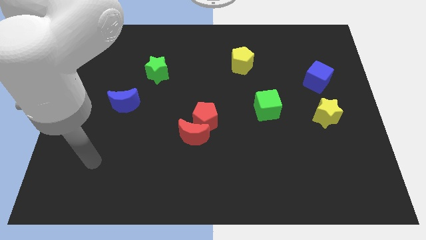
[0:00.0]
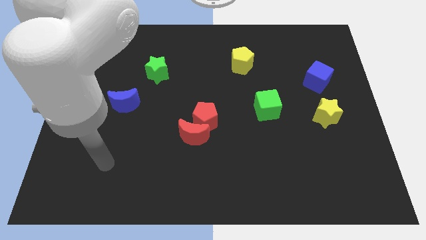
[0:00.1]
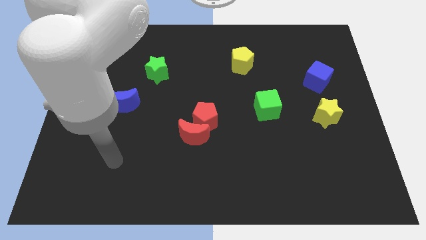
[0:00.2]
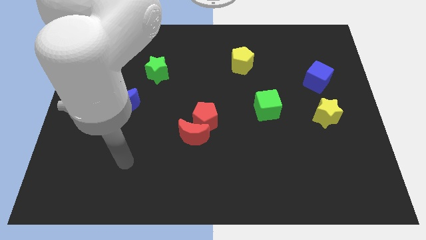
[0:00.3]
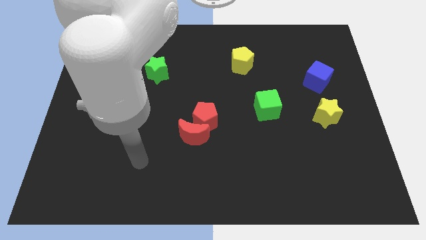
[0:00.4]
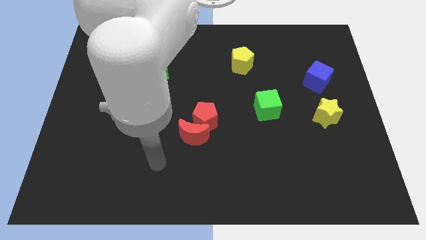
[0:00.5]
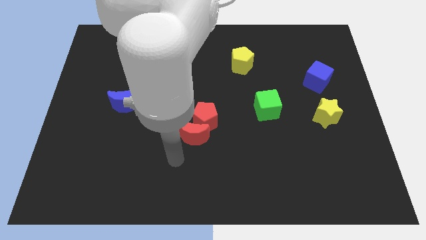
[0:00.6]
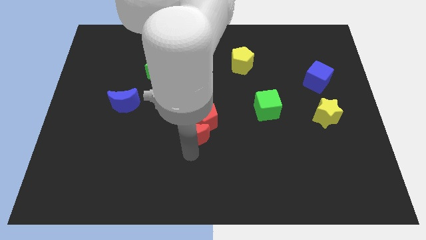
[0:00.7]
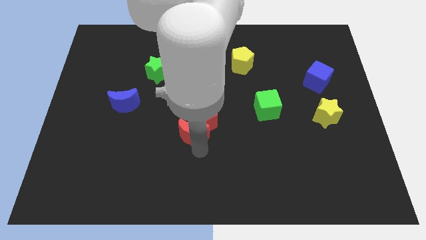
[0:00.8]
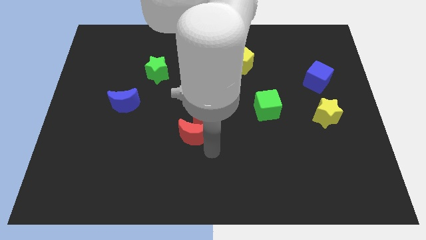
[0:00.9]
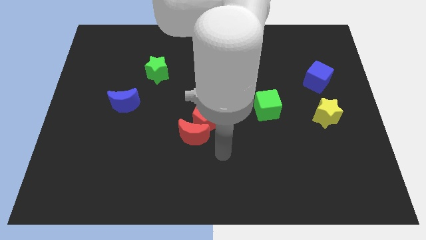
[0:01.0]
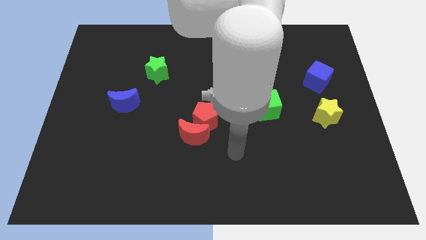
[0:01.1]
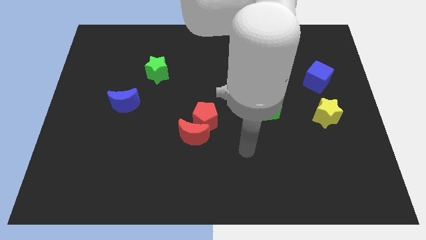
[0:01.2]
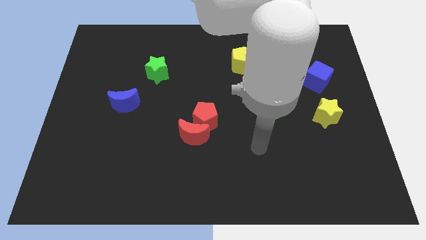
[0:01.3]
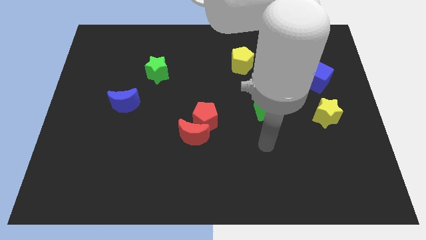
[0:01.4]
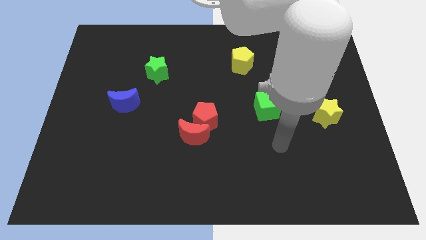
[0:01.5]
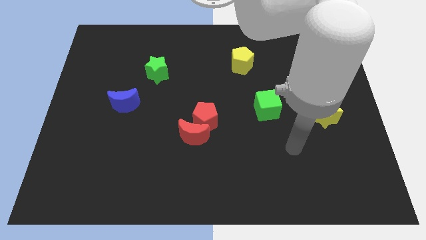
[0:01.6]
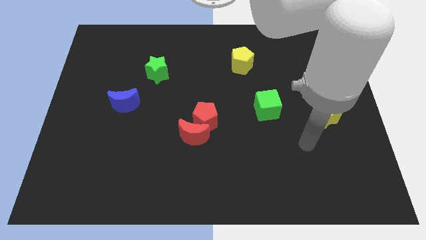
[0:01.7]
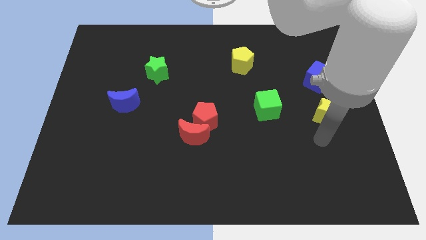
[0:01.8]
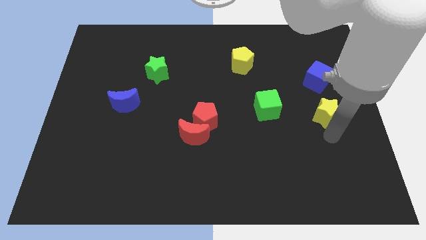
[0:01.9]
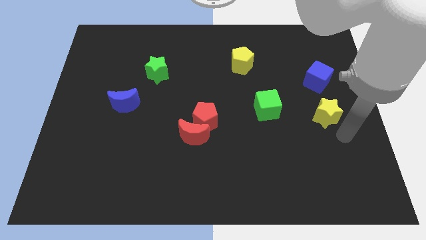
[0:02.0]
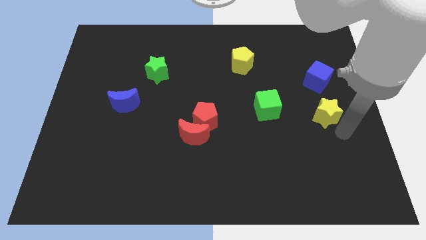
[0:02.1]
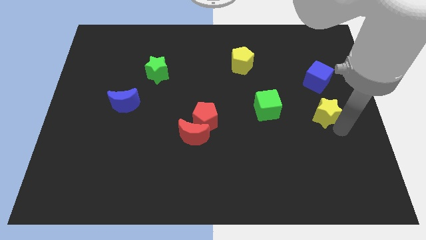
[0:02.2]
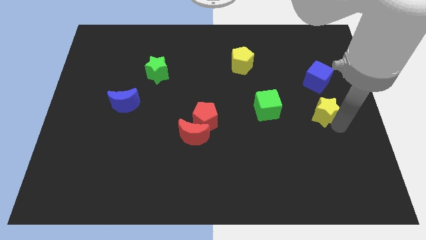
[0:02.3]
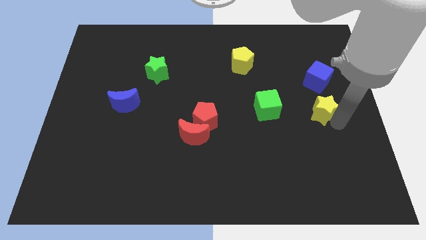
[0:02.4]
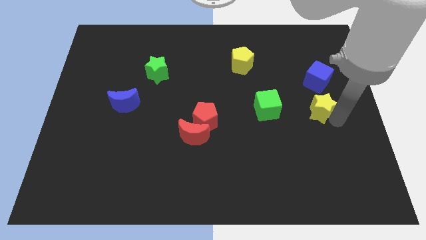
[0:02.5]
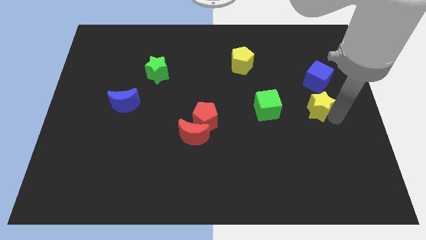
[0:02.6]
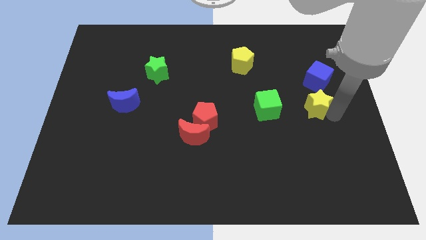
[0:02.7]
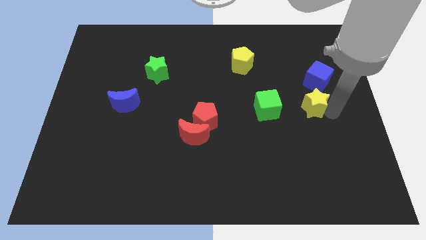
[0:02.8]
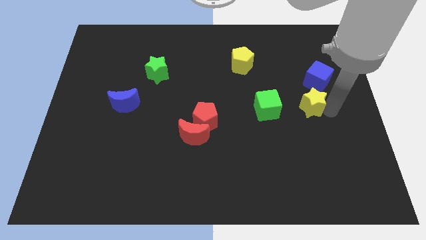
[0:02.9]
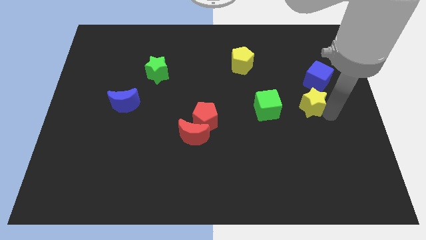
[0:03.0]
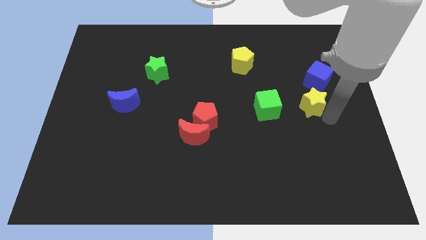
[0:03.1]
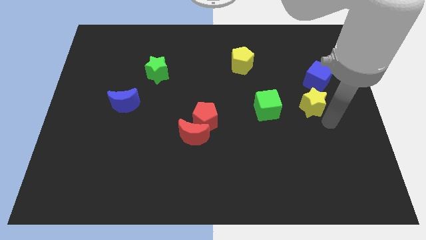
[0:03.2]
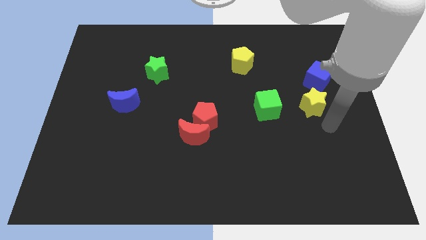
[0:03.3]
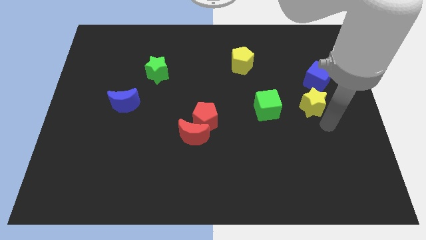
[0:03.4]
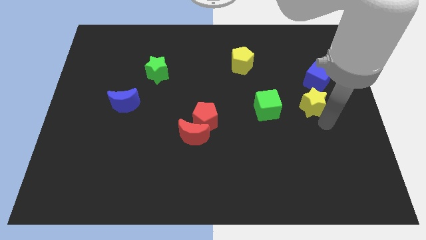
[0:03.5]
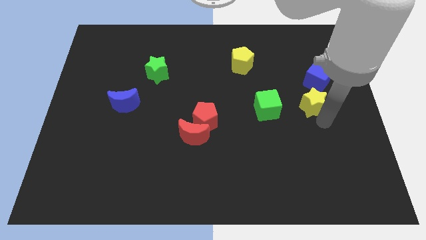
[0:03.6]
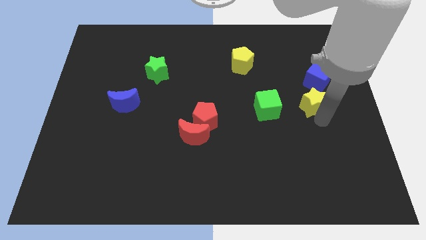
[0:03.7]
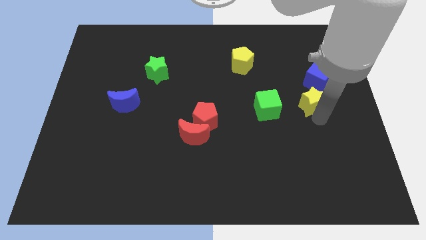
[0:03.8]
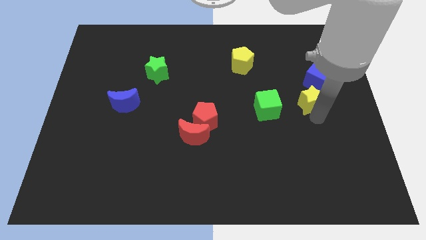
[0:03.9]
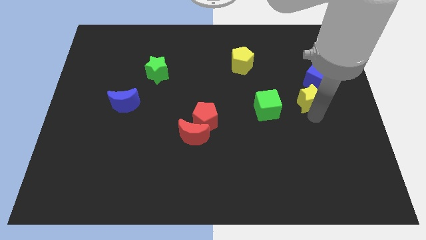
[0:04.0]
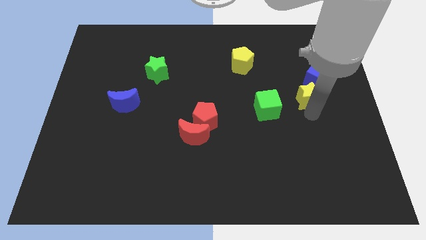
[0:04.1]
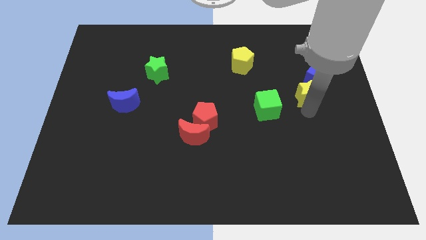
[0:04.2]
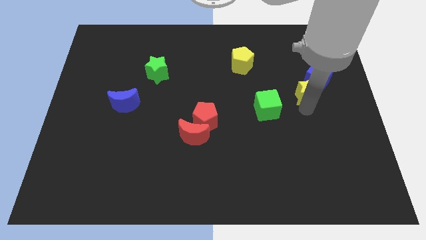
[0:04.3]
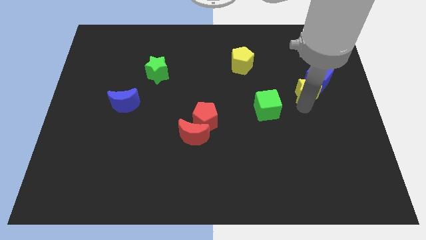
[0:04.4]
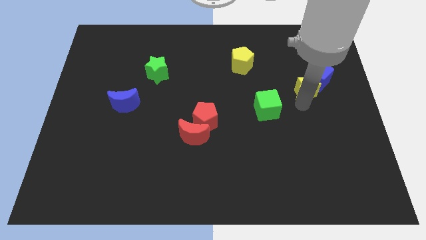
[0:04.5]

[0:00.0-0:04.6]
slightly push the yellow star upwards

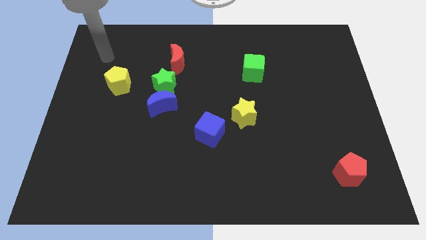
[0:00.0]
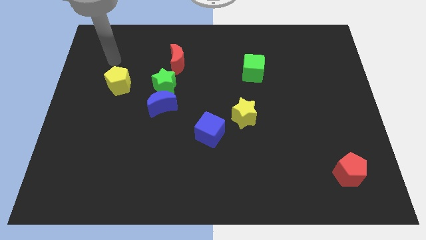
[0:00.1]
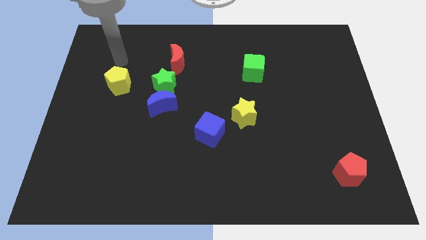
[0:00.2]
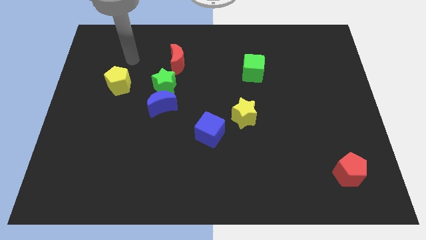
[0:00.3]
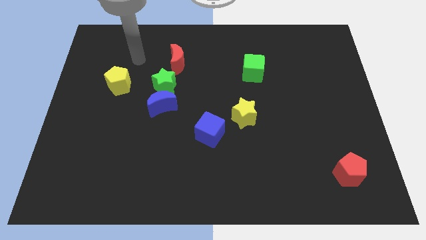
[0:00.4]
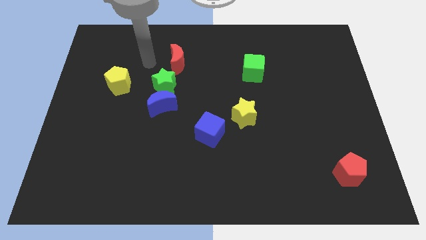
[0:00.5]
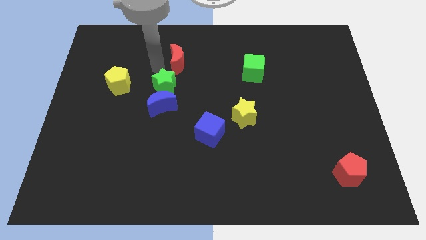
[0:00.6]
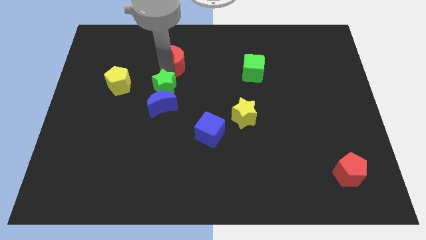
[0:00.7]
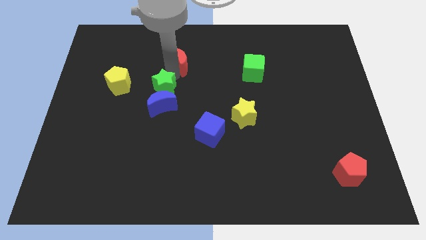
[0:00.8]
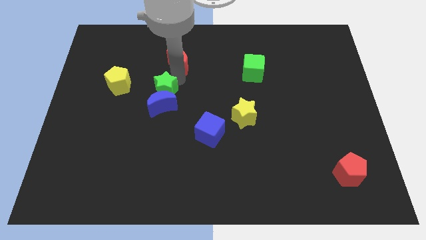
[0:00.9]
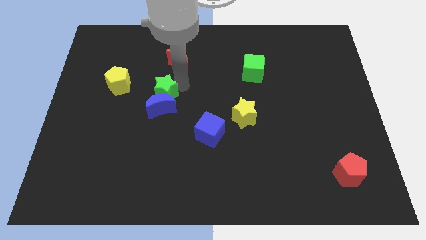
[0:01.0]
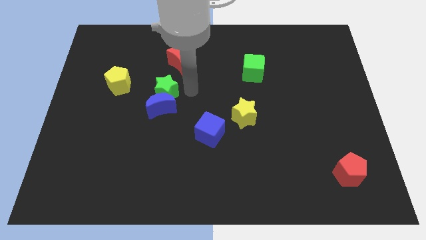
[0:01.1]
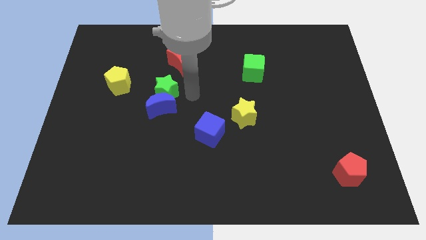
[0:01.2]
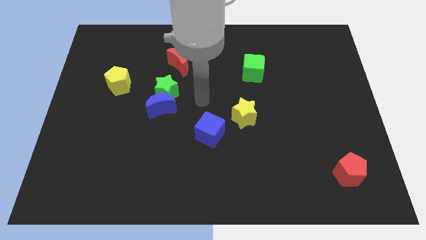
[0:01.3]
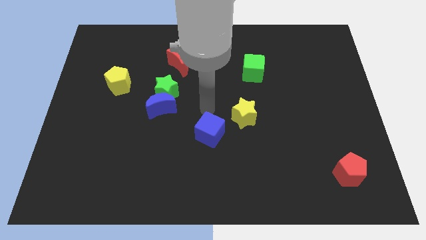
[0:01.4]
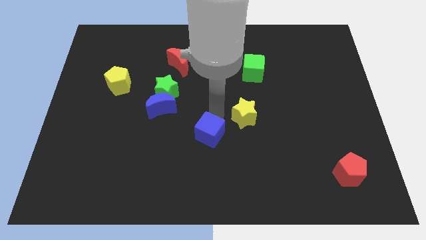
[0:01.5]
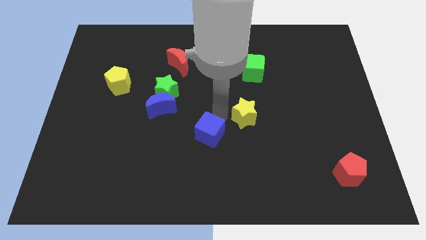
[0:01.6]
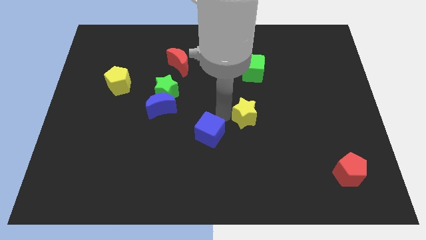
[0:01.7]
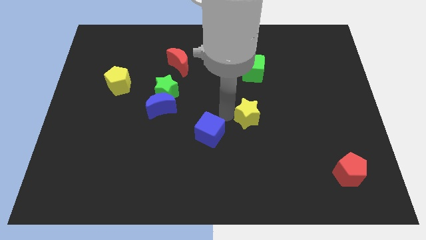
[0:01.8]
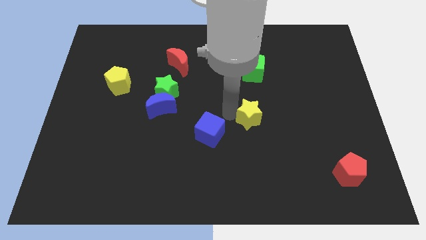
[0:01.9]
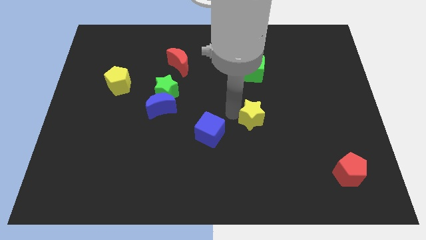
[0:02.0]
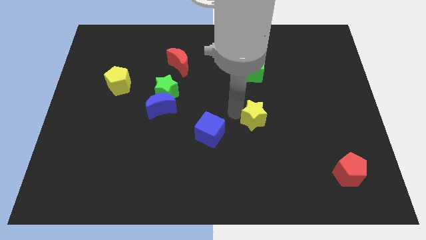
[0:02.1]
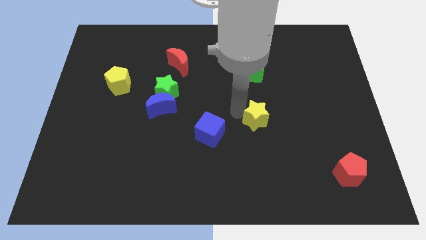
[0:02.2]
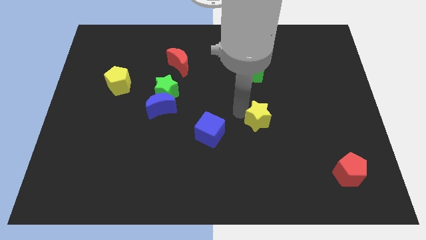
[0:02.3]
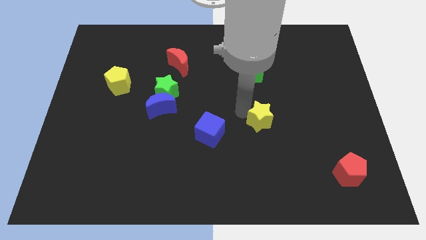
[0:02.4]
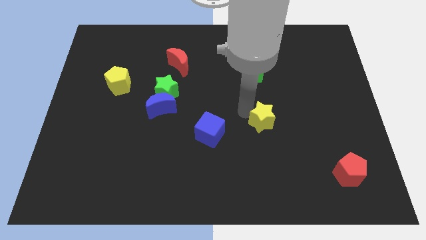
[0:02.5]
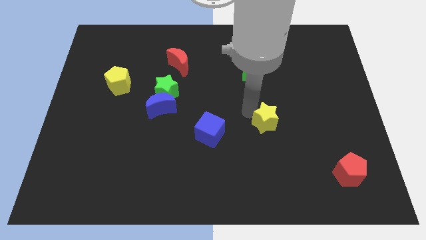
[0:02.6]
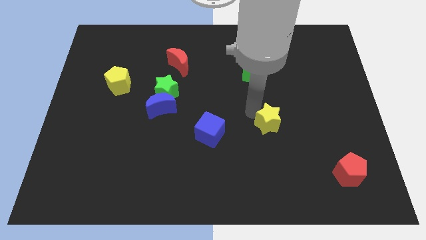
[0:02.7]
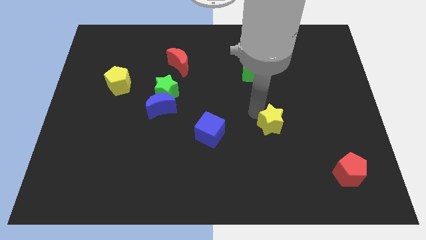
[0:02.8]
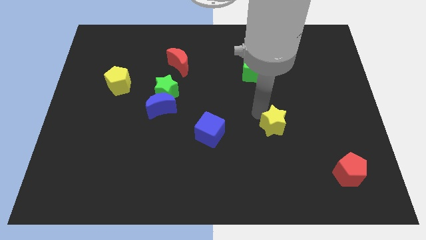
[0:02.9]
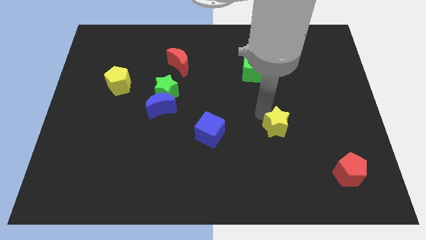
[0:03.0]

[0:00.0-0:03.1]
move the yellow star a little to the right

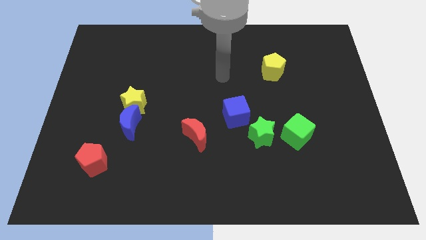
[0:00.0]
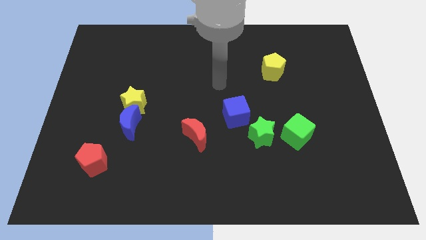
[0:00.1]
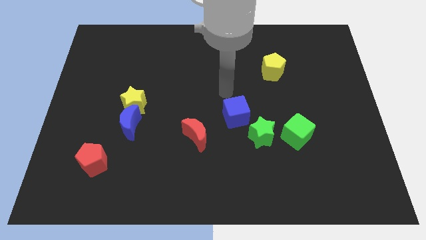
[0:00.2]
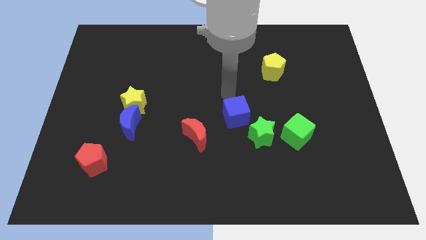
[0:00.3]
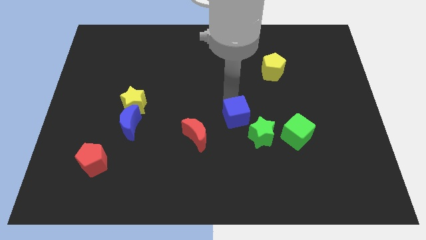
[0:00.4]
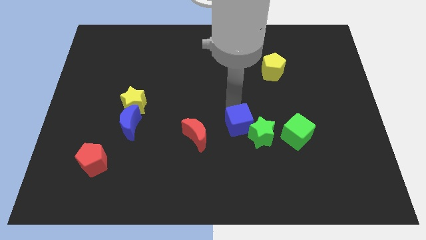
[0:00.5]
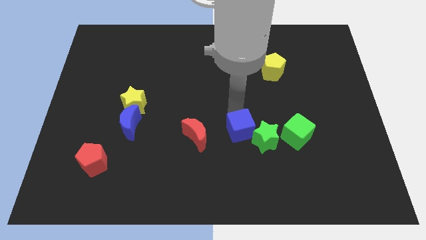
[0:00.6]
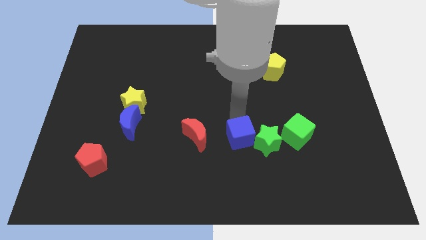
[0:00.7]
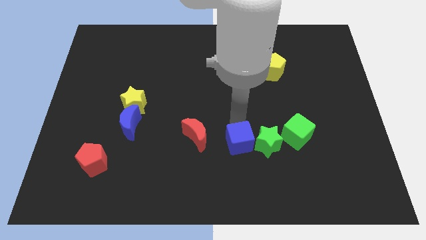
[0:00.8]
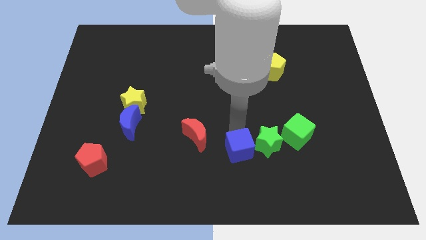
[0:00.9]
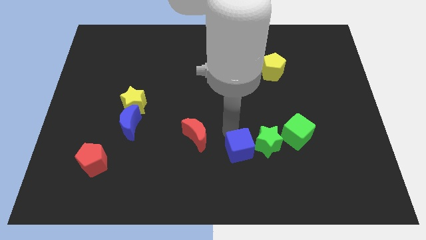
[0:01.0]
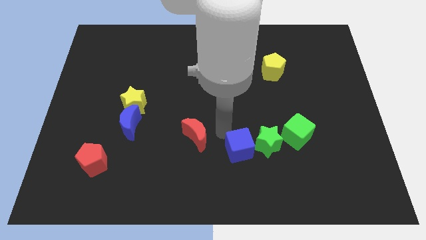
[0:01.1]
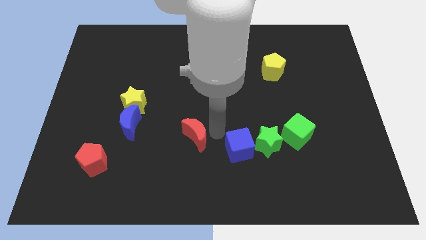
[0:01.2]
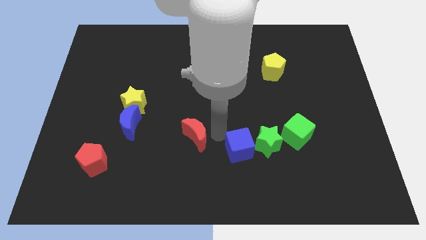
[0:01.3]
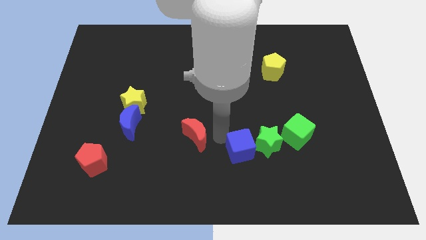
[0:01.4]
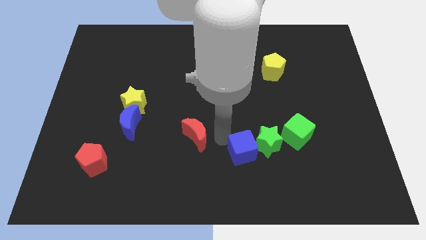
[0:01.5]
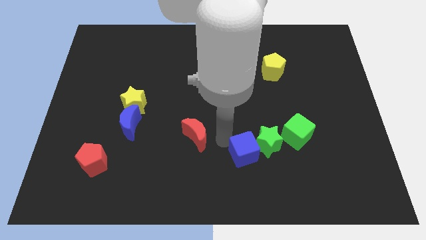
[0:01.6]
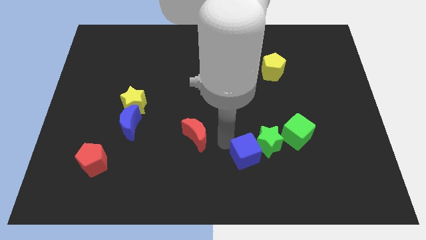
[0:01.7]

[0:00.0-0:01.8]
slightly slide the blue cube down and right diagonally
